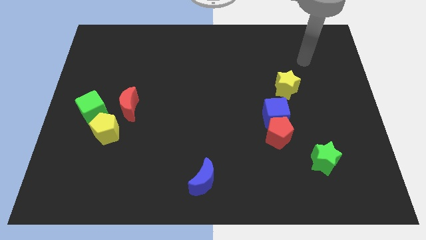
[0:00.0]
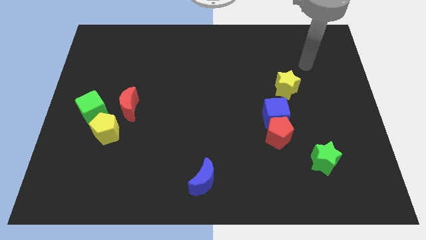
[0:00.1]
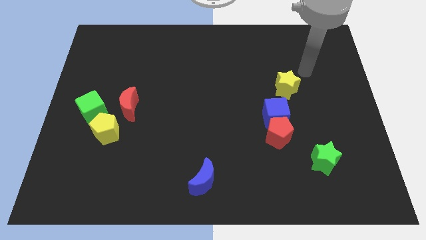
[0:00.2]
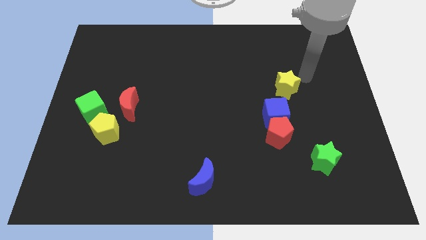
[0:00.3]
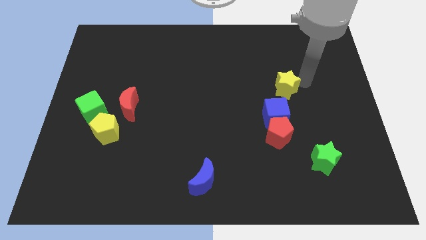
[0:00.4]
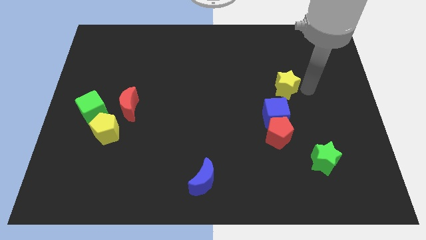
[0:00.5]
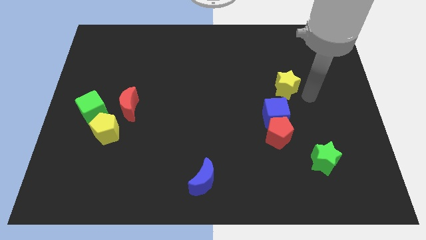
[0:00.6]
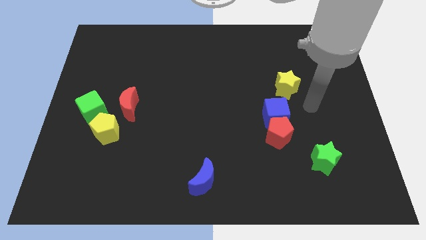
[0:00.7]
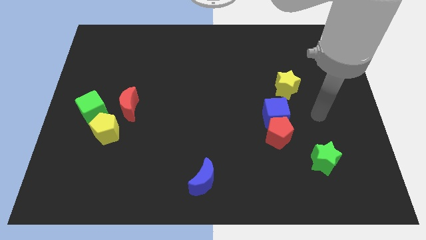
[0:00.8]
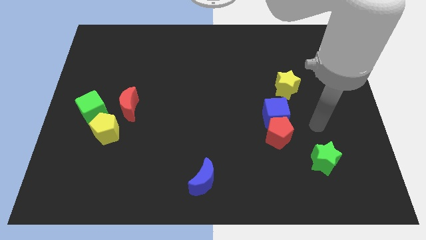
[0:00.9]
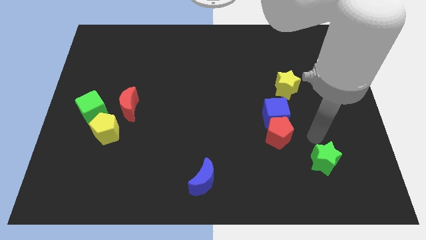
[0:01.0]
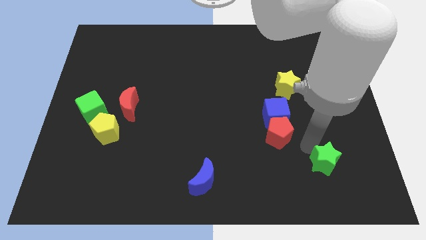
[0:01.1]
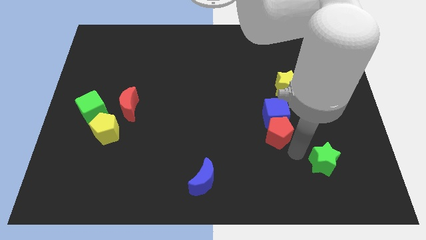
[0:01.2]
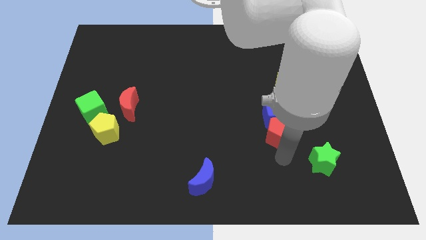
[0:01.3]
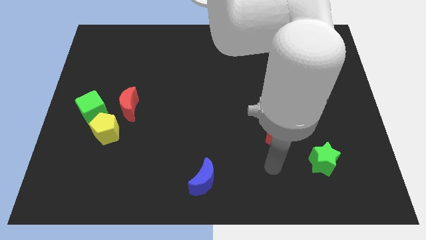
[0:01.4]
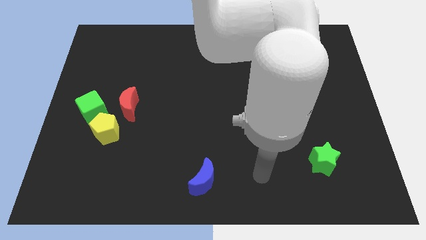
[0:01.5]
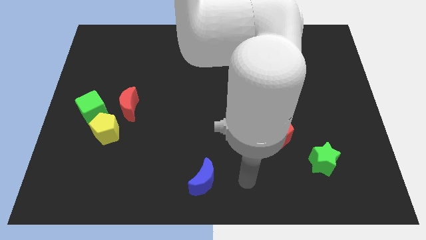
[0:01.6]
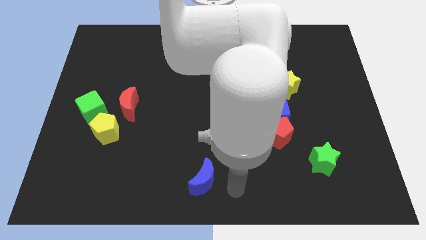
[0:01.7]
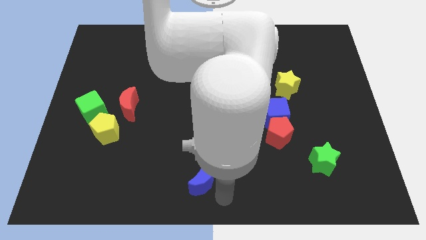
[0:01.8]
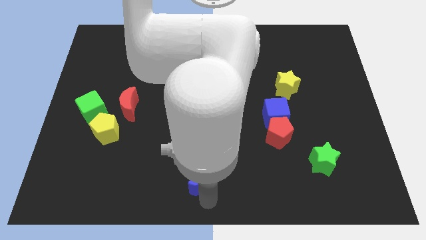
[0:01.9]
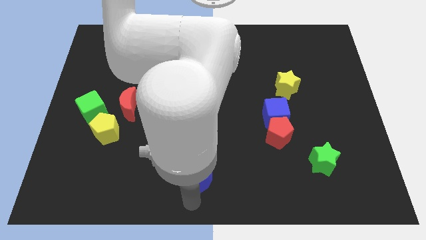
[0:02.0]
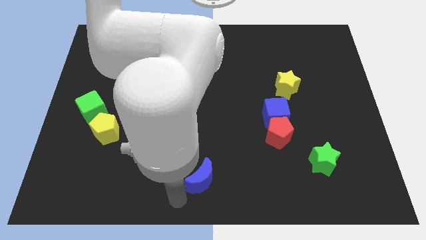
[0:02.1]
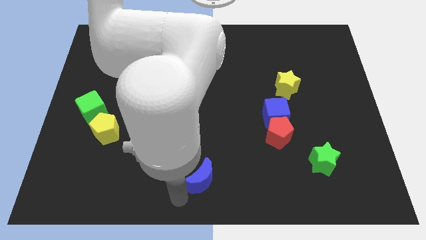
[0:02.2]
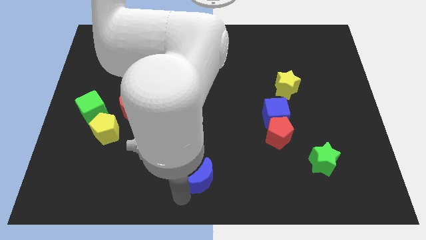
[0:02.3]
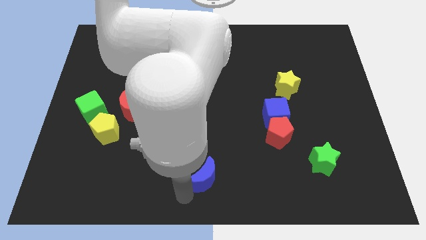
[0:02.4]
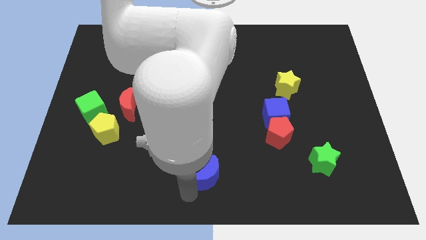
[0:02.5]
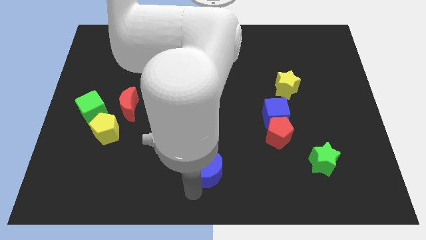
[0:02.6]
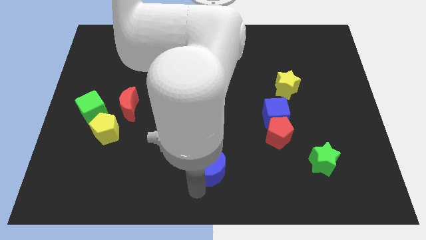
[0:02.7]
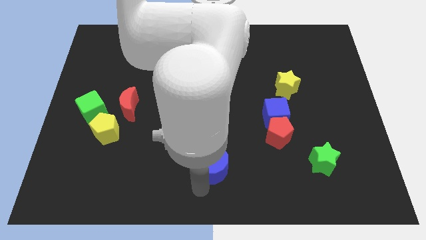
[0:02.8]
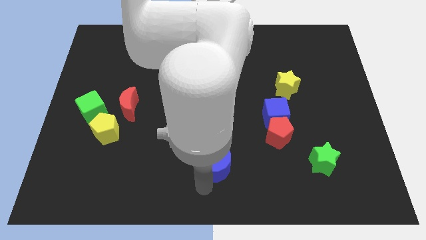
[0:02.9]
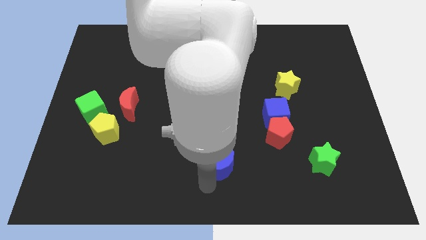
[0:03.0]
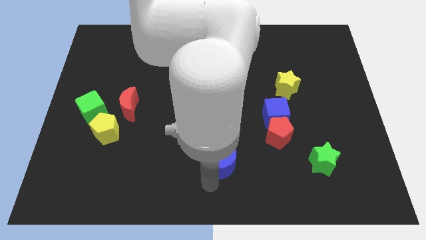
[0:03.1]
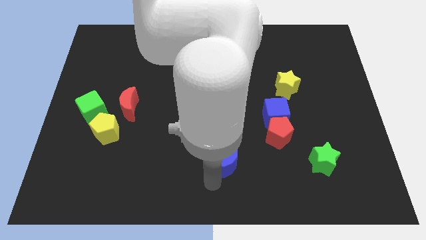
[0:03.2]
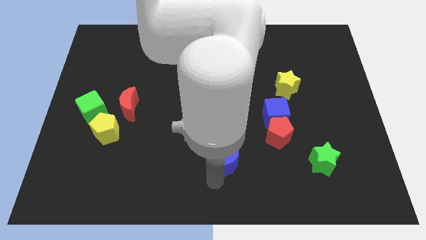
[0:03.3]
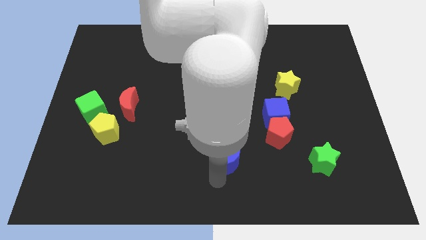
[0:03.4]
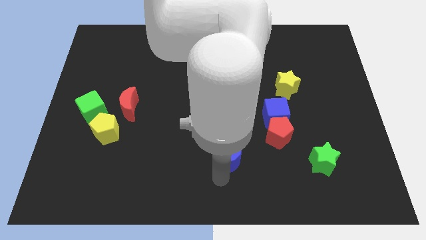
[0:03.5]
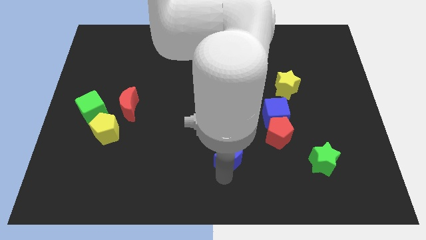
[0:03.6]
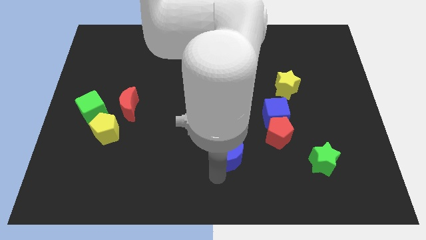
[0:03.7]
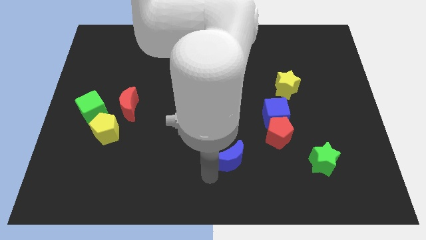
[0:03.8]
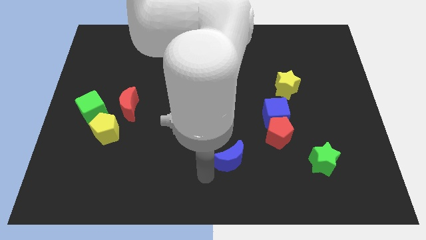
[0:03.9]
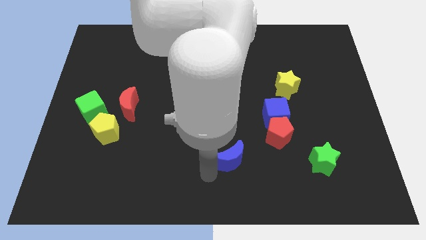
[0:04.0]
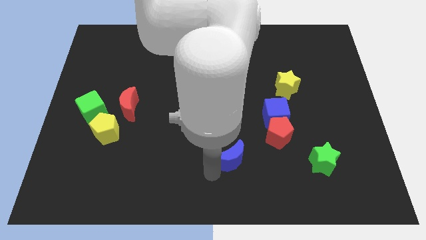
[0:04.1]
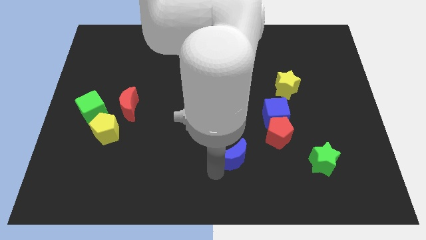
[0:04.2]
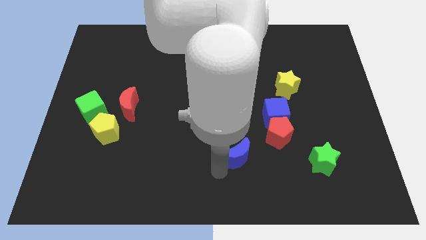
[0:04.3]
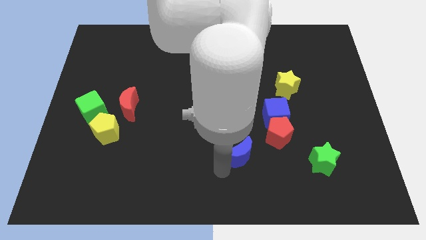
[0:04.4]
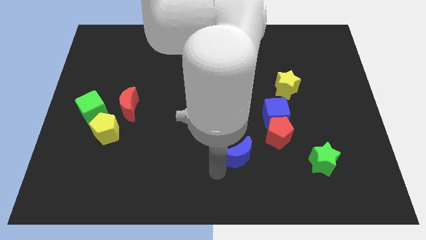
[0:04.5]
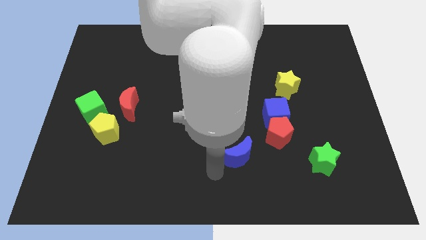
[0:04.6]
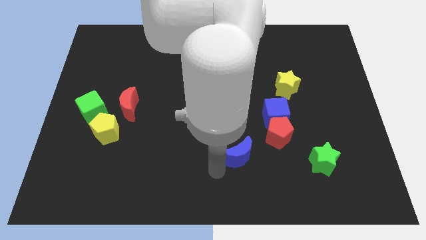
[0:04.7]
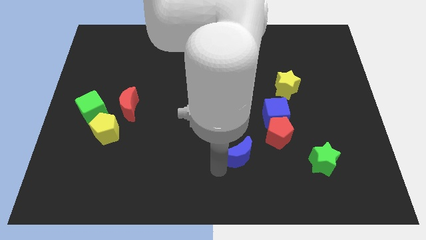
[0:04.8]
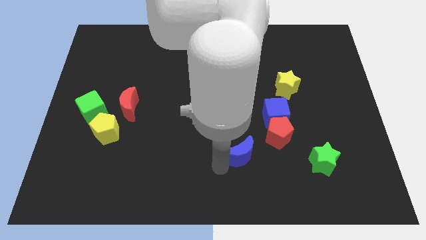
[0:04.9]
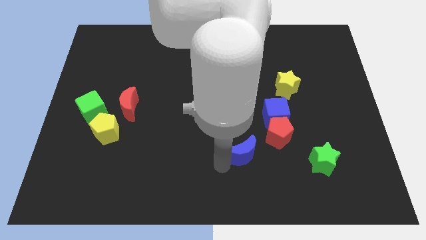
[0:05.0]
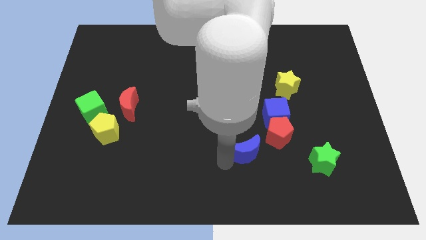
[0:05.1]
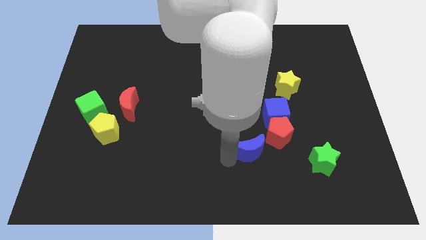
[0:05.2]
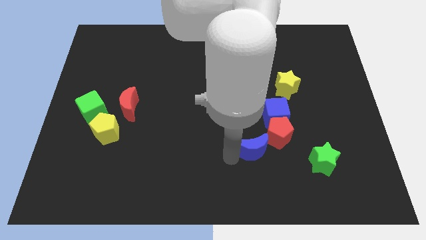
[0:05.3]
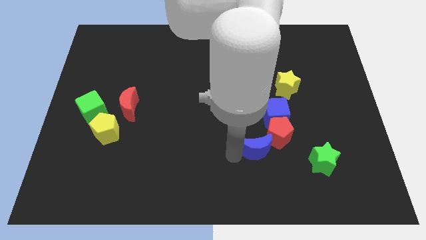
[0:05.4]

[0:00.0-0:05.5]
push the blue moon close to the red pentagon

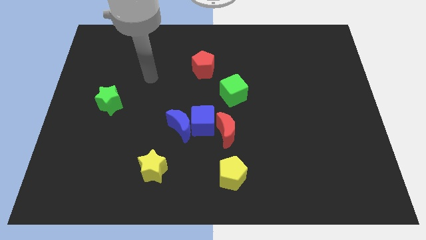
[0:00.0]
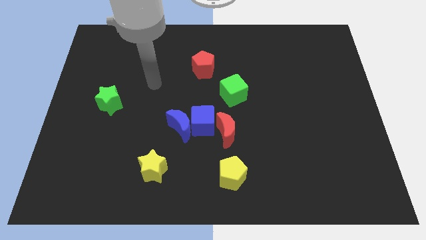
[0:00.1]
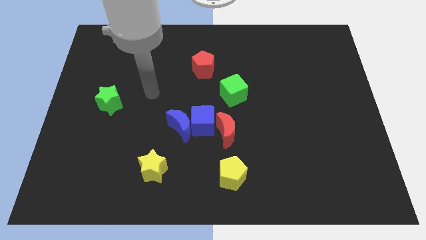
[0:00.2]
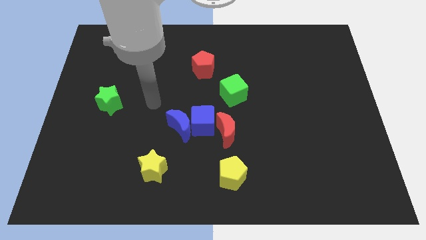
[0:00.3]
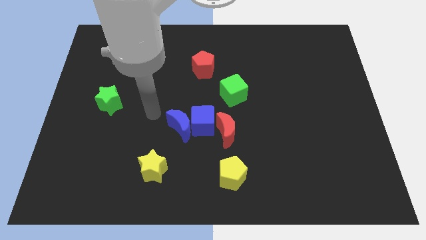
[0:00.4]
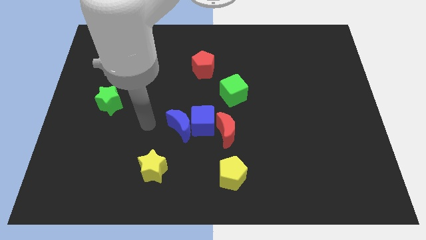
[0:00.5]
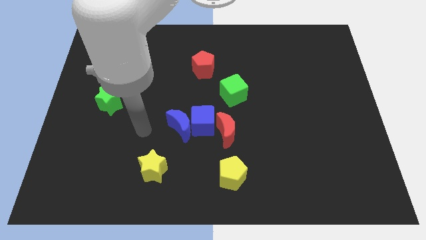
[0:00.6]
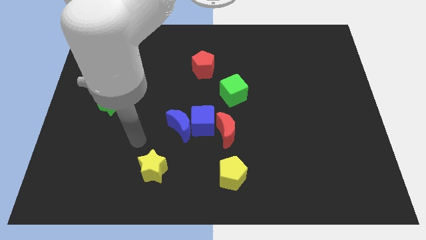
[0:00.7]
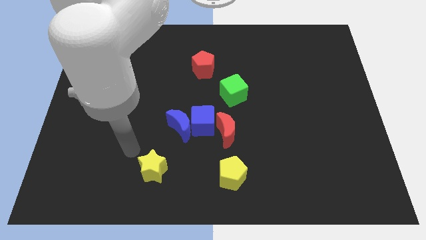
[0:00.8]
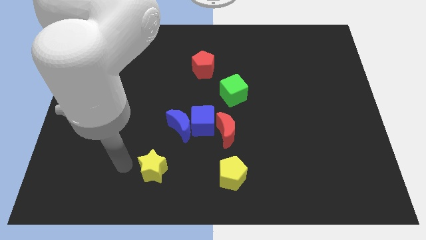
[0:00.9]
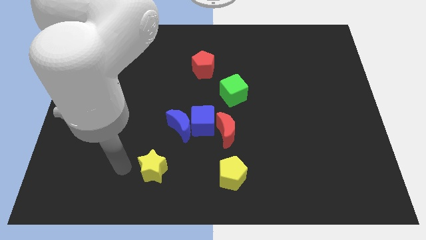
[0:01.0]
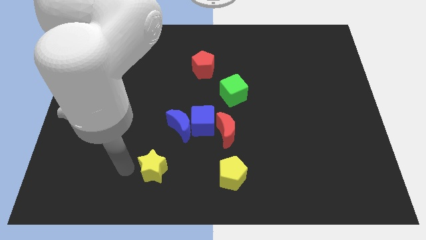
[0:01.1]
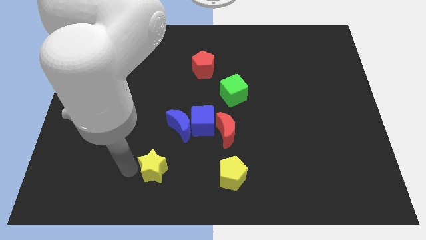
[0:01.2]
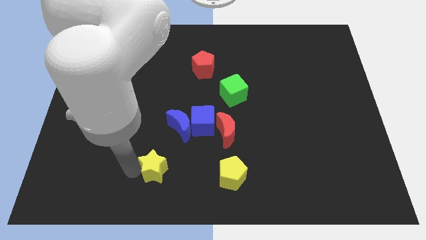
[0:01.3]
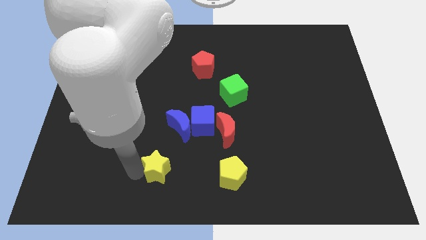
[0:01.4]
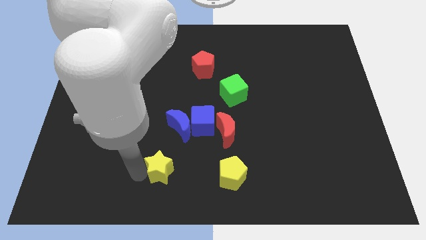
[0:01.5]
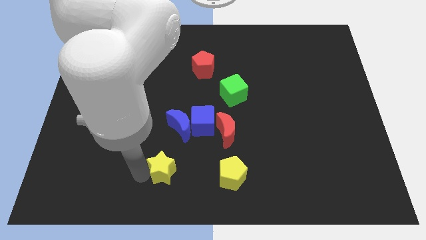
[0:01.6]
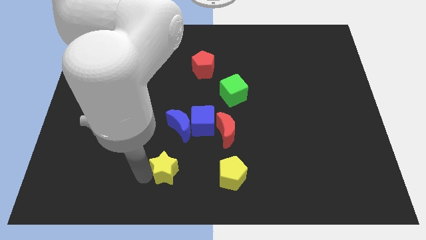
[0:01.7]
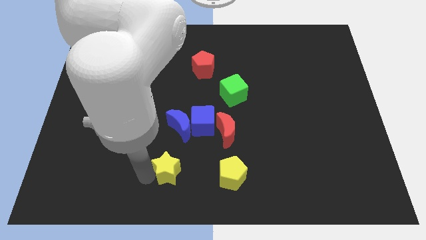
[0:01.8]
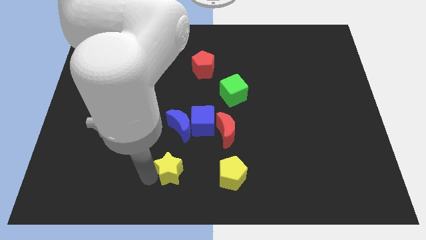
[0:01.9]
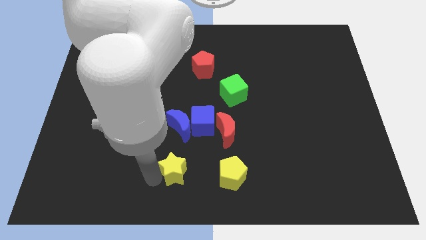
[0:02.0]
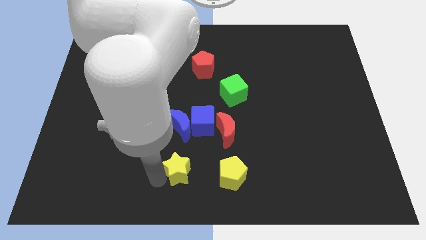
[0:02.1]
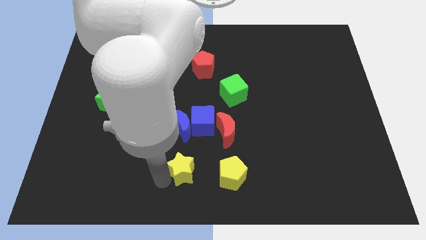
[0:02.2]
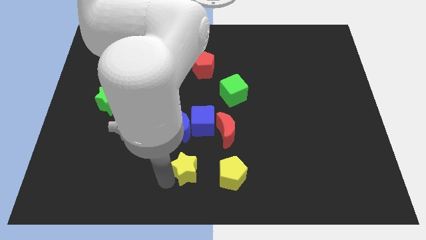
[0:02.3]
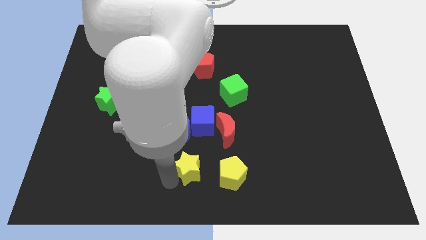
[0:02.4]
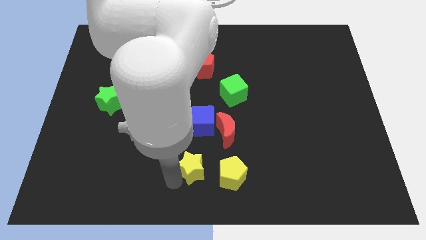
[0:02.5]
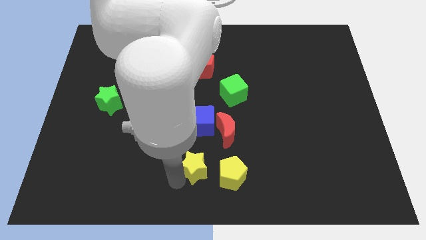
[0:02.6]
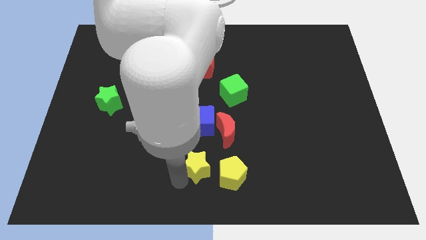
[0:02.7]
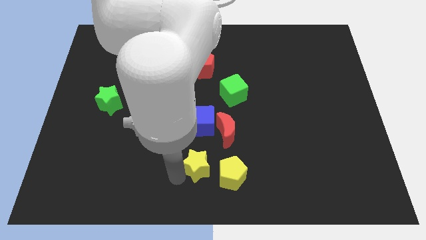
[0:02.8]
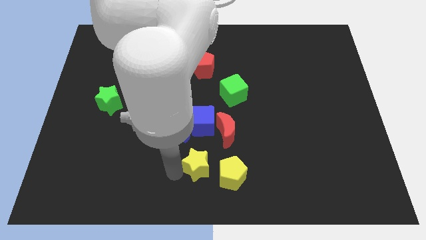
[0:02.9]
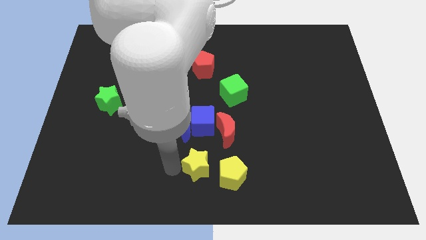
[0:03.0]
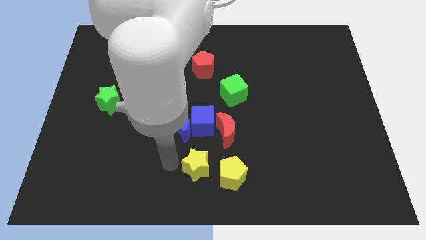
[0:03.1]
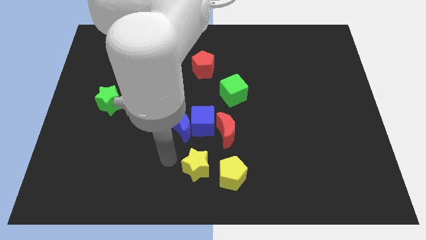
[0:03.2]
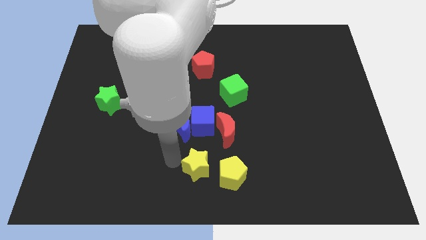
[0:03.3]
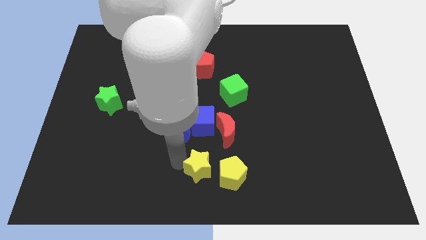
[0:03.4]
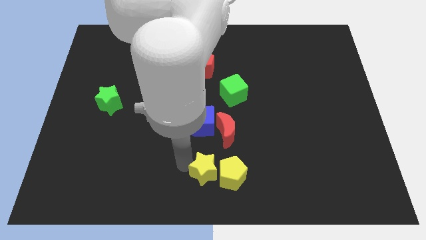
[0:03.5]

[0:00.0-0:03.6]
move the yellow star to the yellow pentagon
